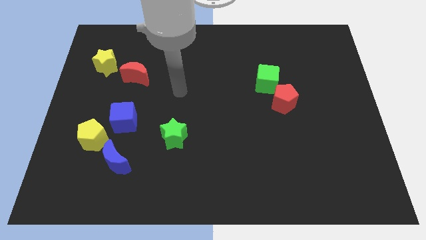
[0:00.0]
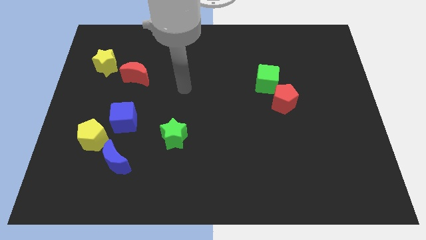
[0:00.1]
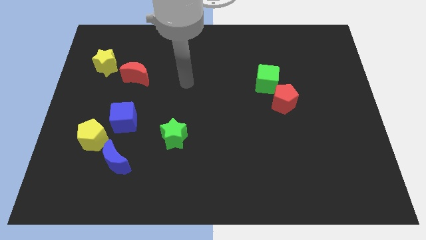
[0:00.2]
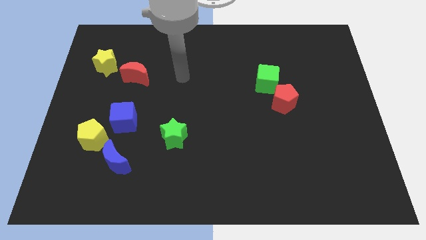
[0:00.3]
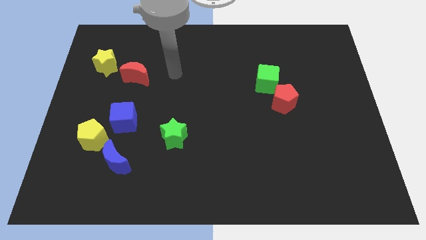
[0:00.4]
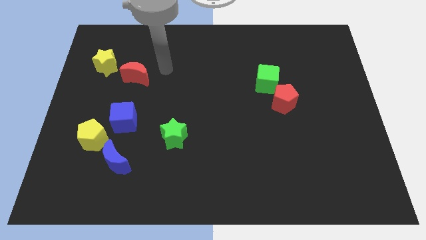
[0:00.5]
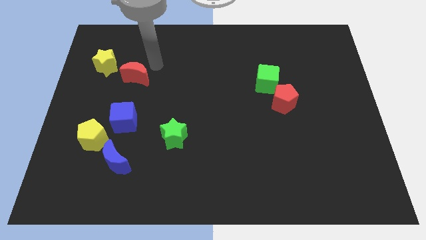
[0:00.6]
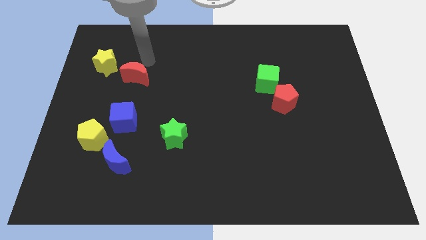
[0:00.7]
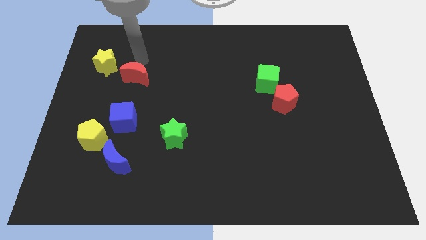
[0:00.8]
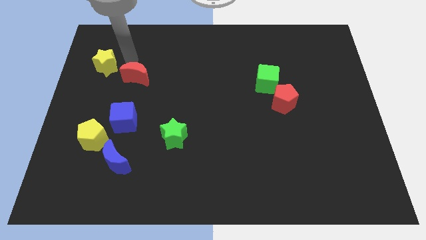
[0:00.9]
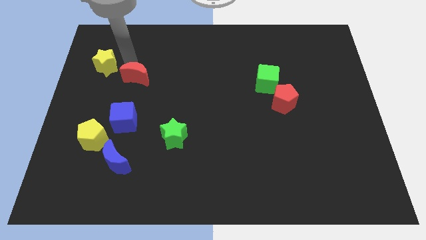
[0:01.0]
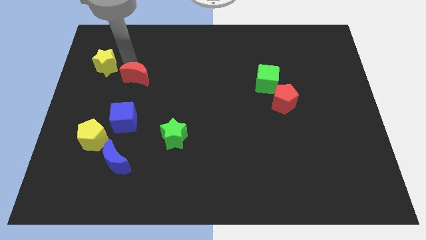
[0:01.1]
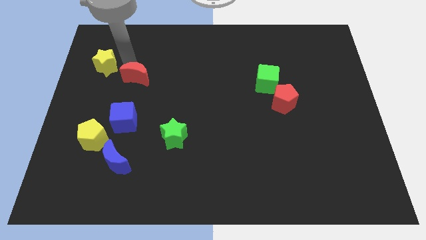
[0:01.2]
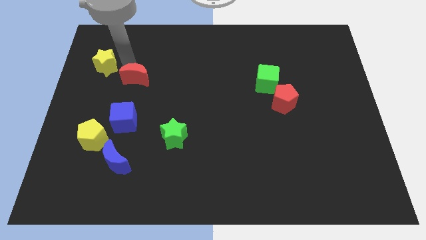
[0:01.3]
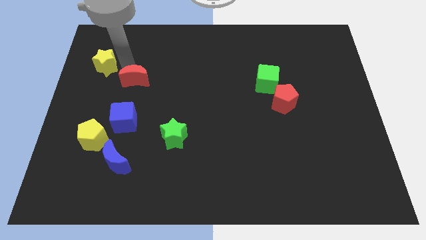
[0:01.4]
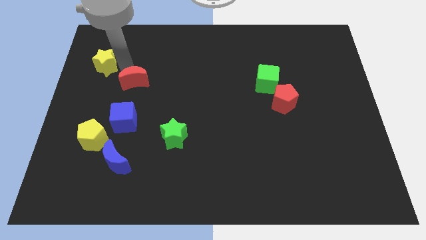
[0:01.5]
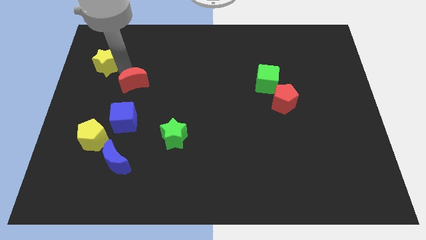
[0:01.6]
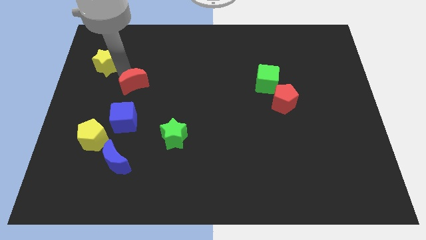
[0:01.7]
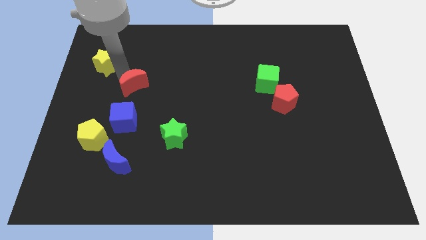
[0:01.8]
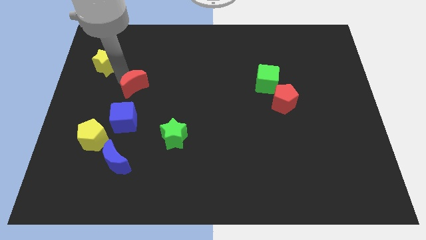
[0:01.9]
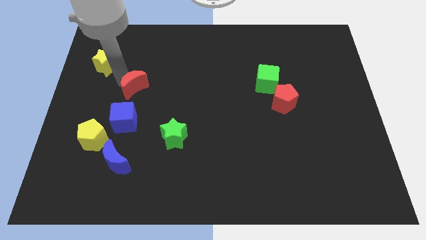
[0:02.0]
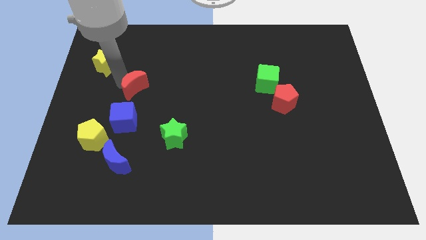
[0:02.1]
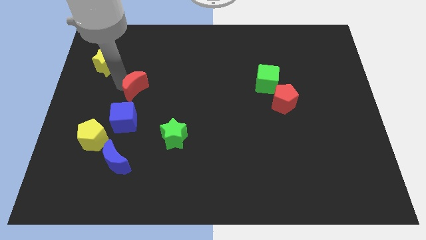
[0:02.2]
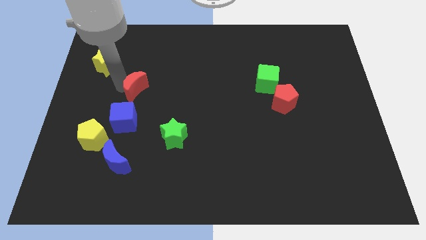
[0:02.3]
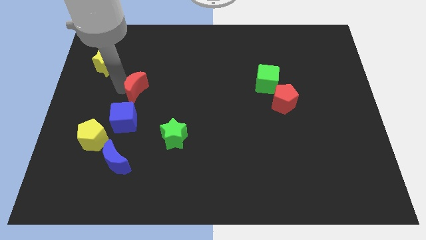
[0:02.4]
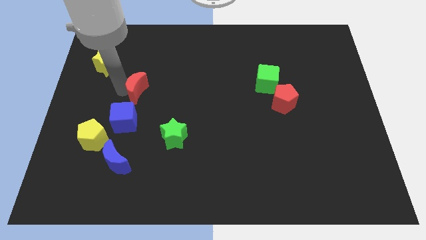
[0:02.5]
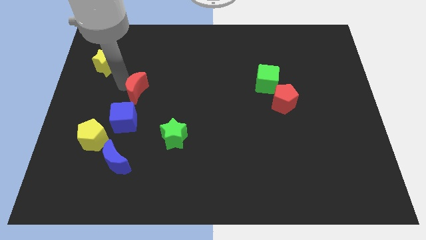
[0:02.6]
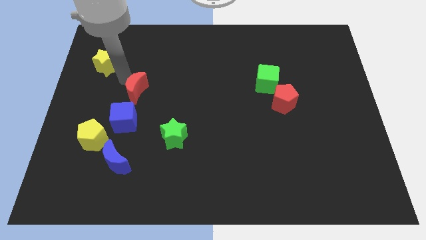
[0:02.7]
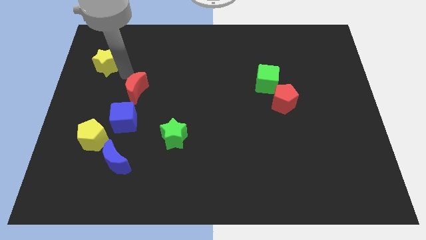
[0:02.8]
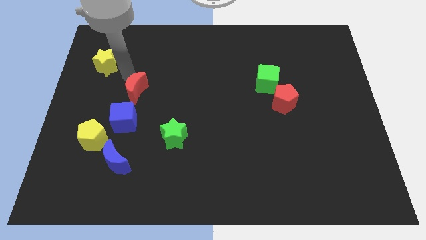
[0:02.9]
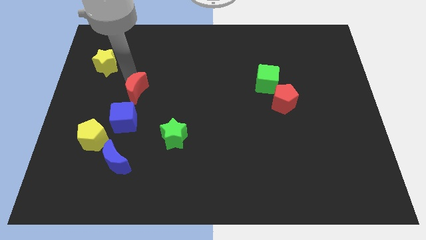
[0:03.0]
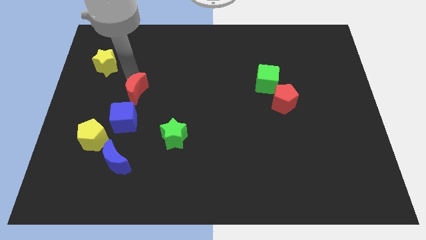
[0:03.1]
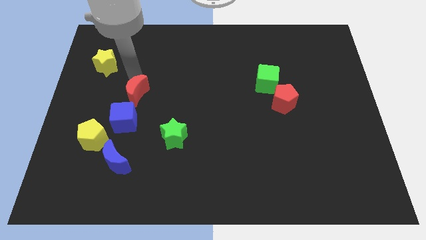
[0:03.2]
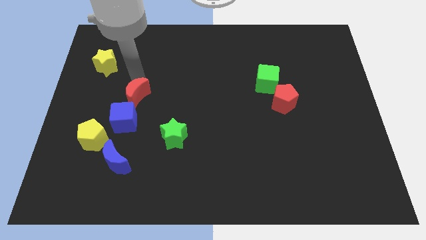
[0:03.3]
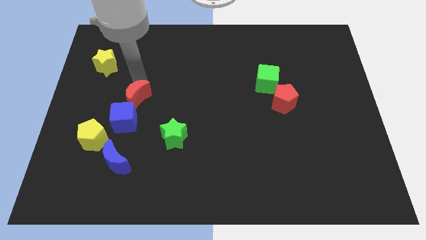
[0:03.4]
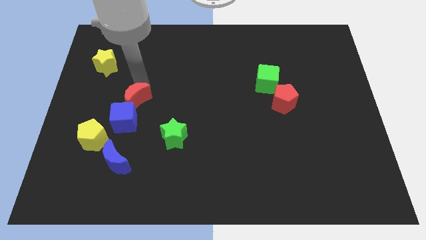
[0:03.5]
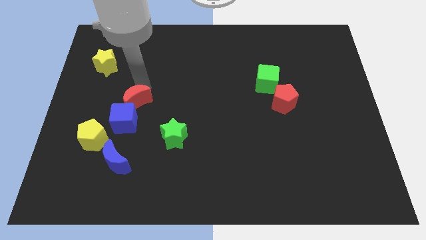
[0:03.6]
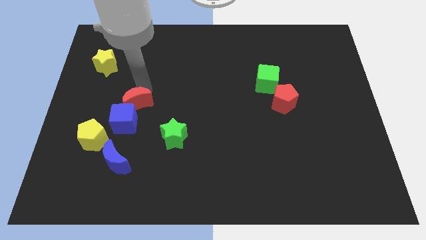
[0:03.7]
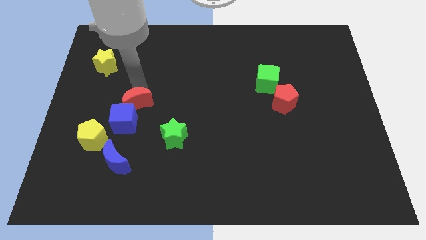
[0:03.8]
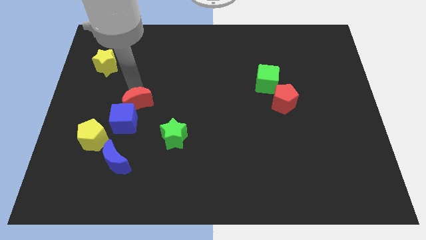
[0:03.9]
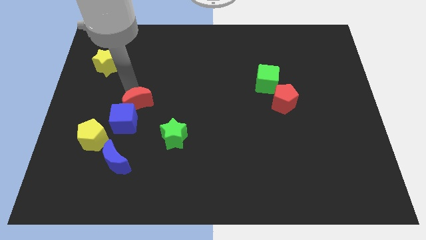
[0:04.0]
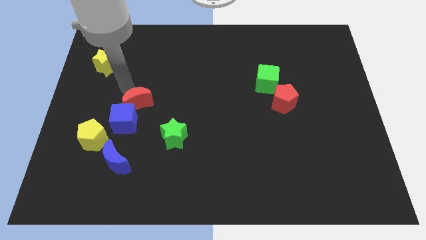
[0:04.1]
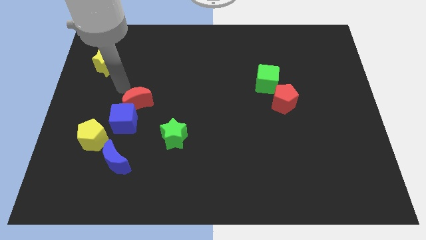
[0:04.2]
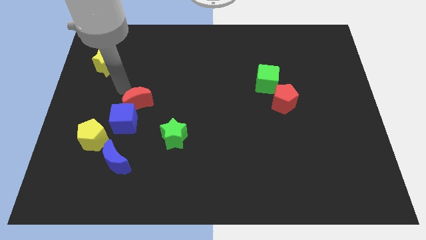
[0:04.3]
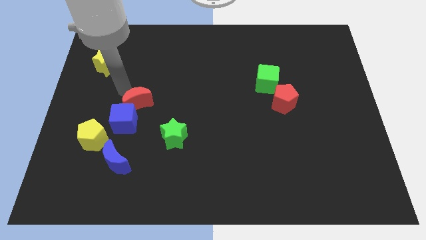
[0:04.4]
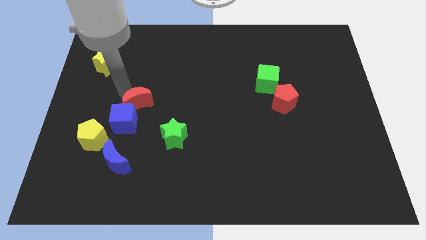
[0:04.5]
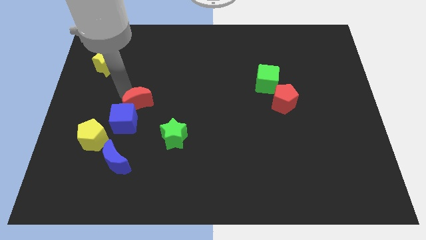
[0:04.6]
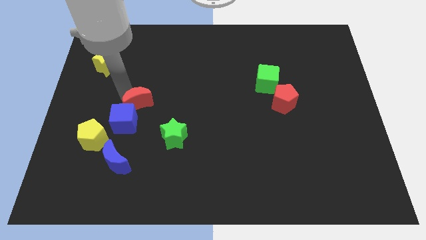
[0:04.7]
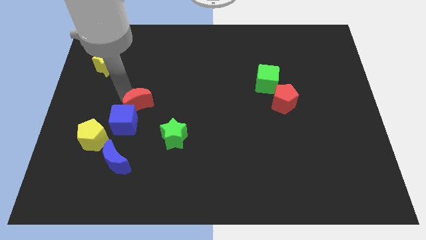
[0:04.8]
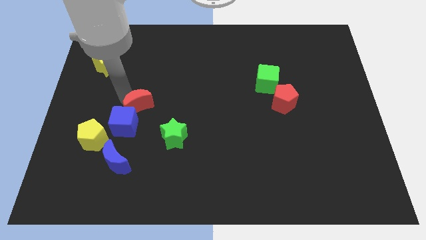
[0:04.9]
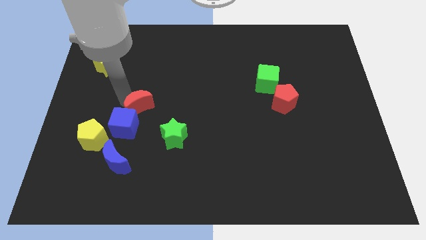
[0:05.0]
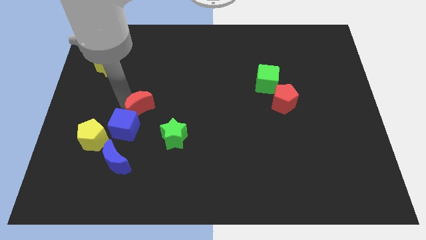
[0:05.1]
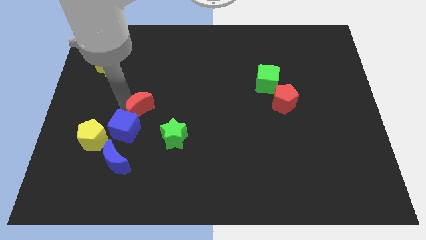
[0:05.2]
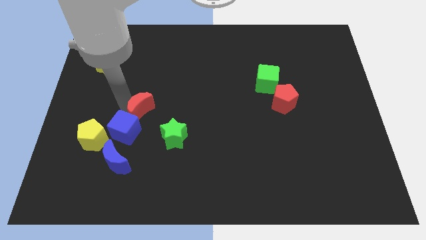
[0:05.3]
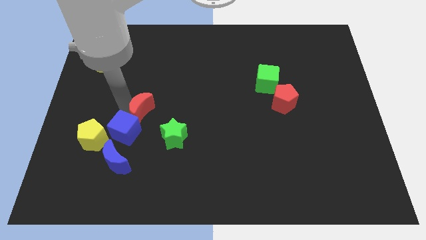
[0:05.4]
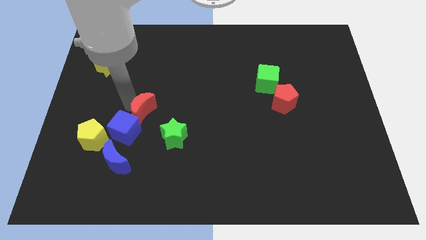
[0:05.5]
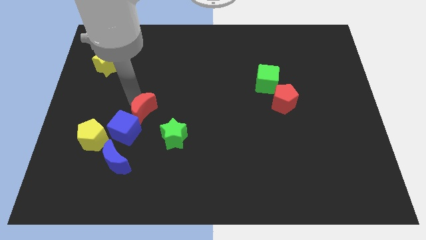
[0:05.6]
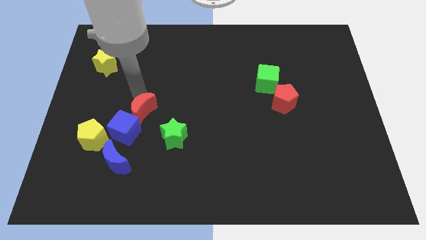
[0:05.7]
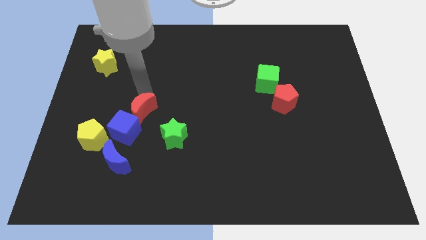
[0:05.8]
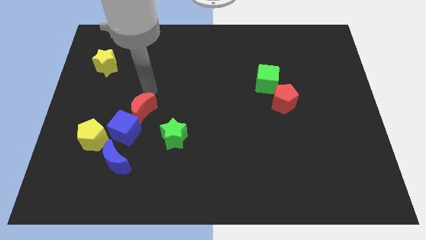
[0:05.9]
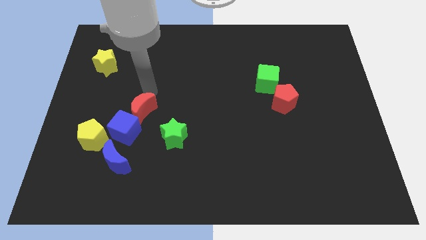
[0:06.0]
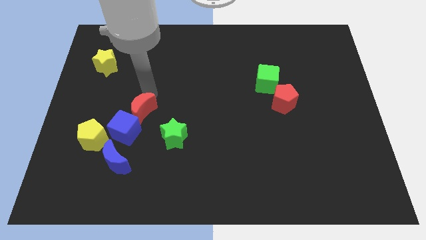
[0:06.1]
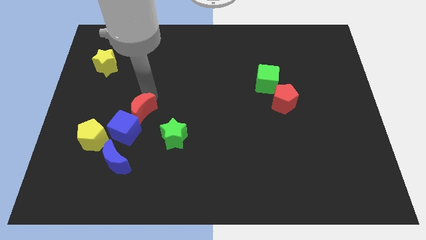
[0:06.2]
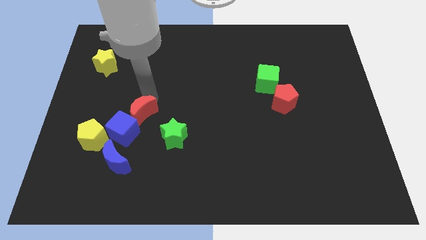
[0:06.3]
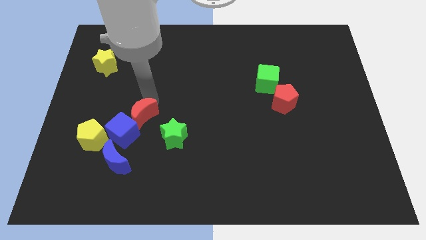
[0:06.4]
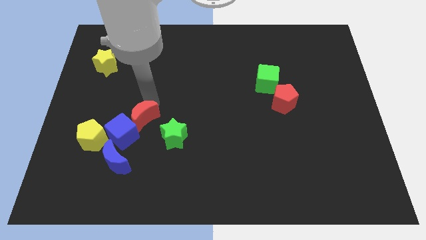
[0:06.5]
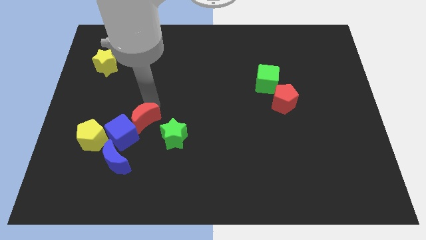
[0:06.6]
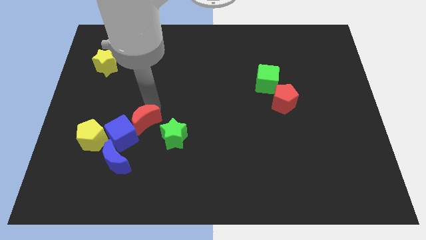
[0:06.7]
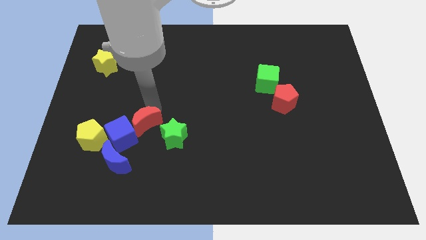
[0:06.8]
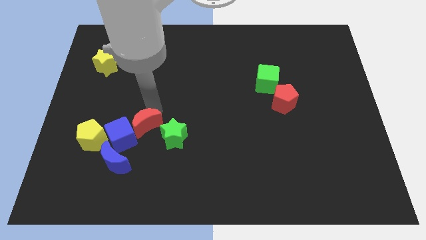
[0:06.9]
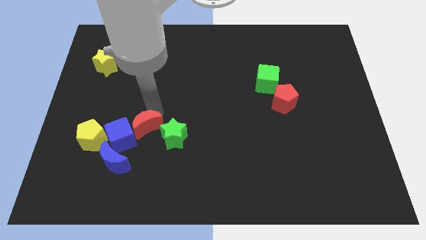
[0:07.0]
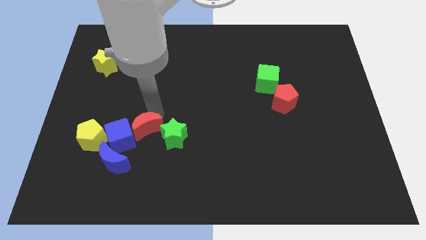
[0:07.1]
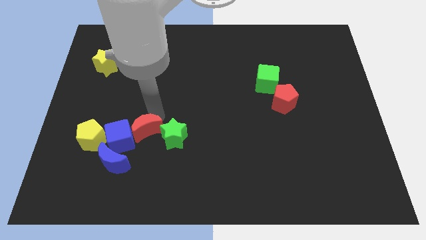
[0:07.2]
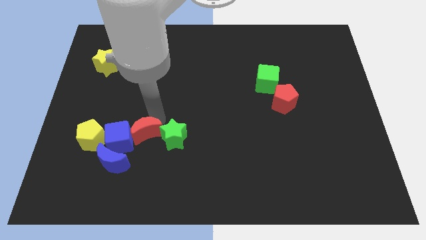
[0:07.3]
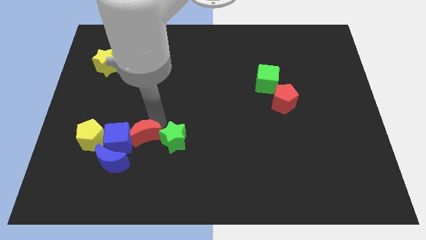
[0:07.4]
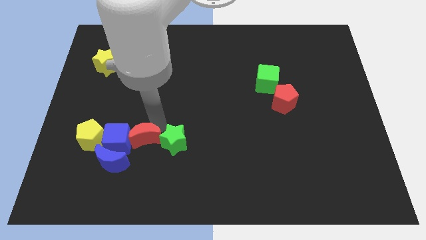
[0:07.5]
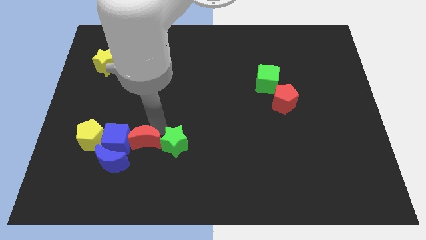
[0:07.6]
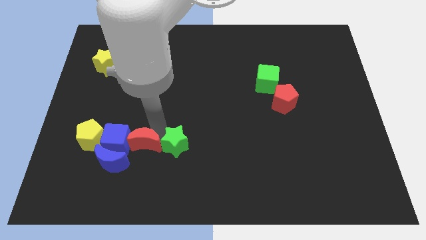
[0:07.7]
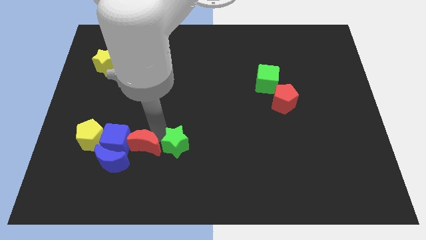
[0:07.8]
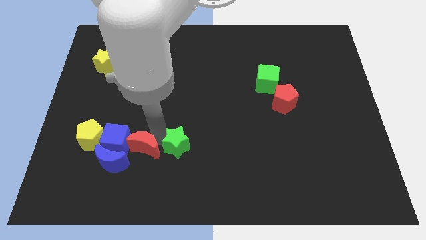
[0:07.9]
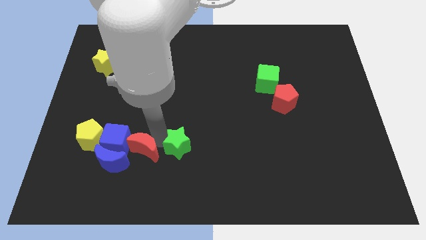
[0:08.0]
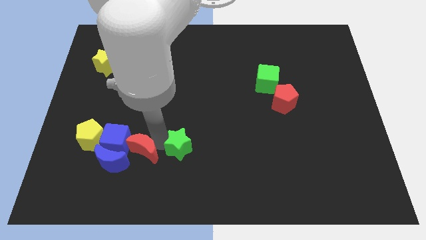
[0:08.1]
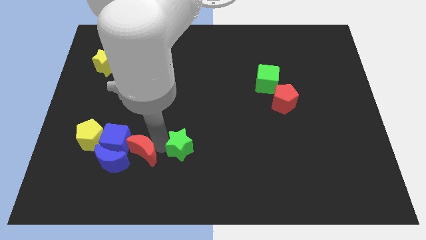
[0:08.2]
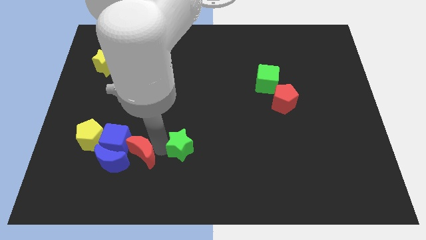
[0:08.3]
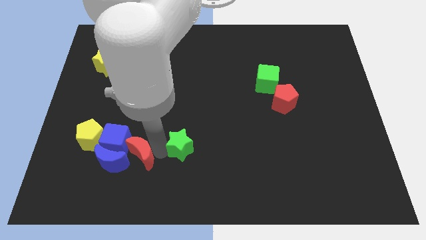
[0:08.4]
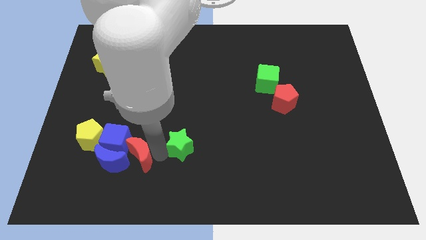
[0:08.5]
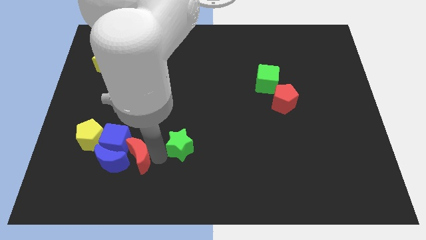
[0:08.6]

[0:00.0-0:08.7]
move the red moon to the blue moon
